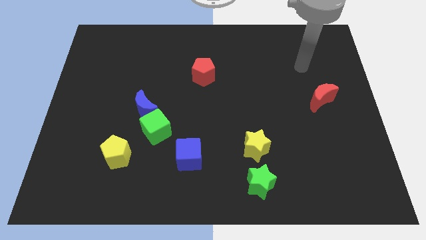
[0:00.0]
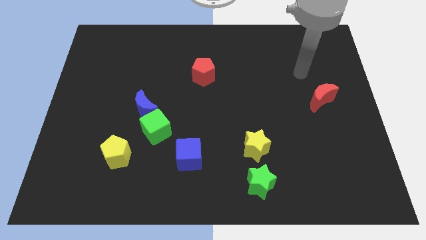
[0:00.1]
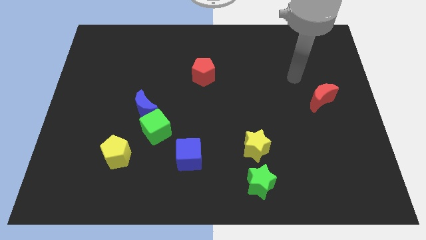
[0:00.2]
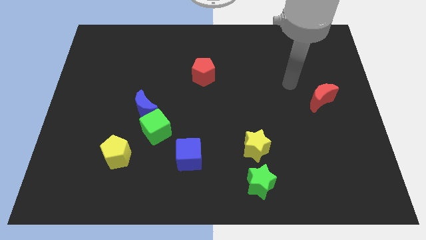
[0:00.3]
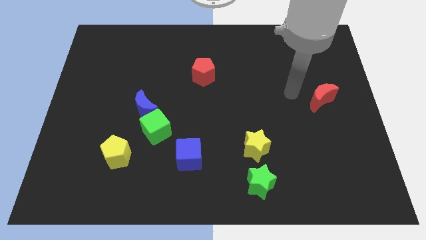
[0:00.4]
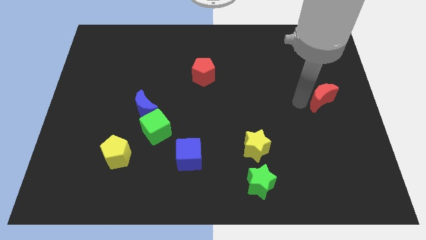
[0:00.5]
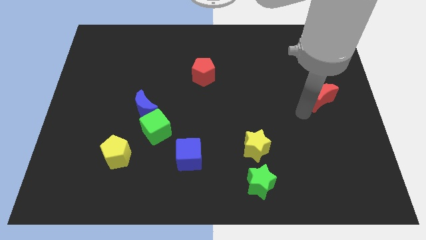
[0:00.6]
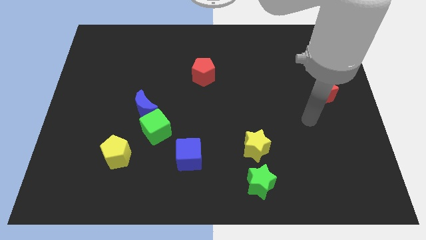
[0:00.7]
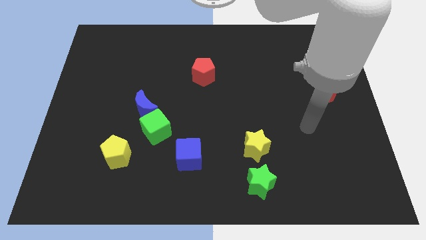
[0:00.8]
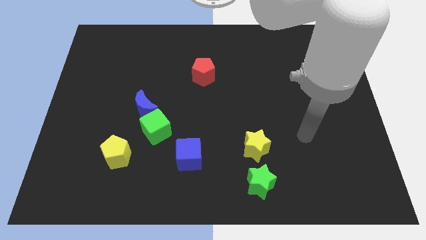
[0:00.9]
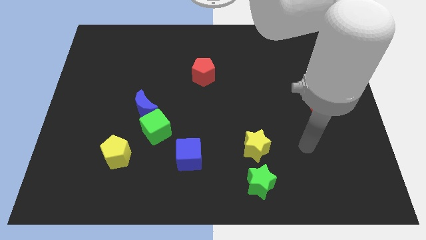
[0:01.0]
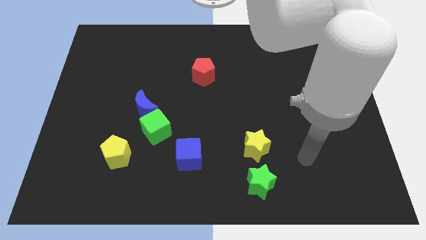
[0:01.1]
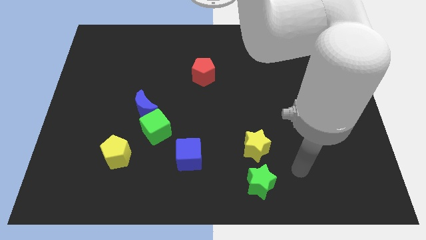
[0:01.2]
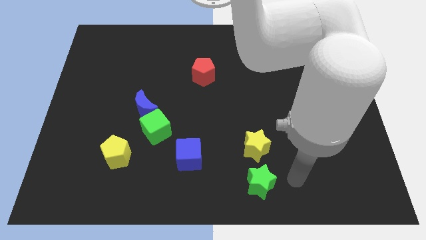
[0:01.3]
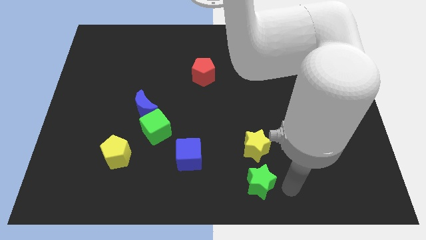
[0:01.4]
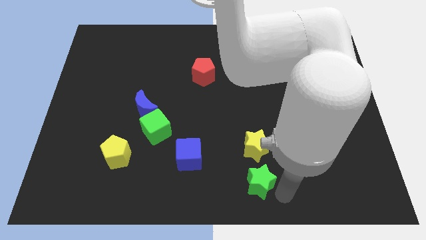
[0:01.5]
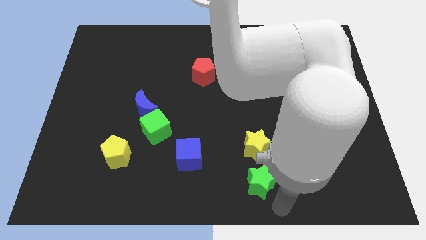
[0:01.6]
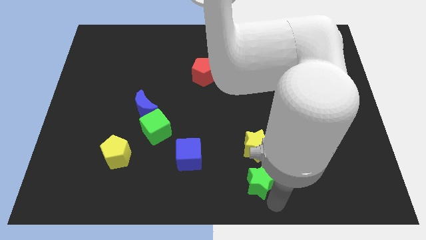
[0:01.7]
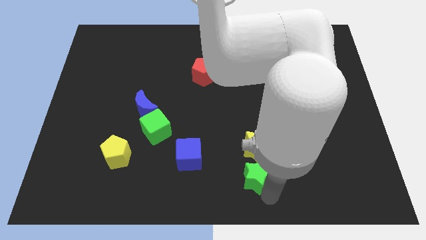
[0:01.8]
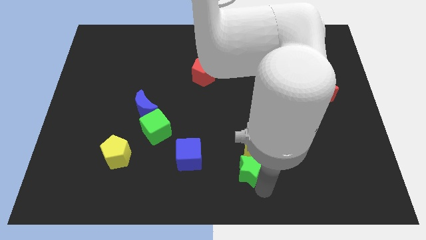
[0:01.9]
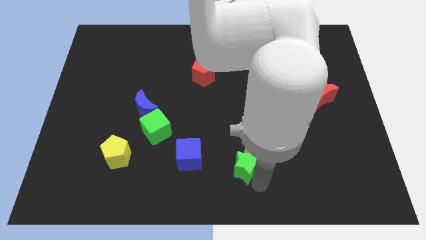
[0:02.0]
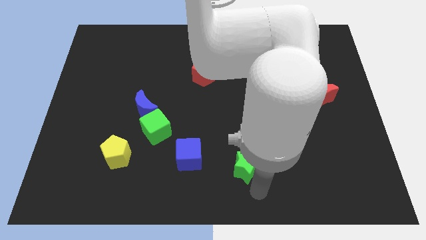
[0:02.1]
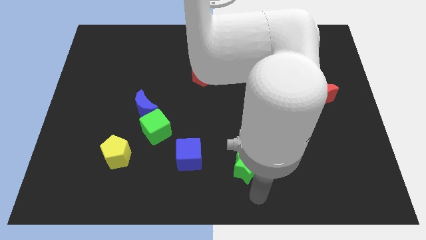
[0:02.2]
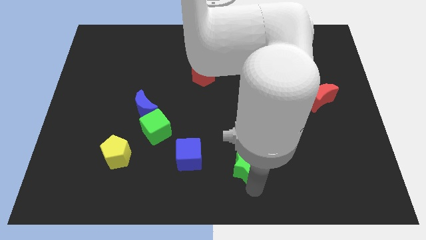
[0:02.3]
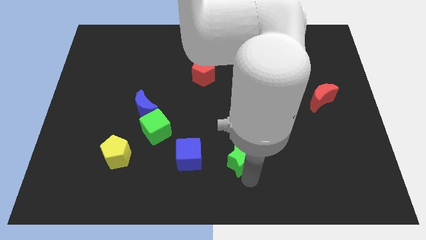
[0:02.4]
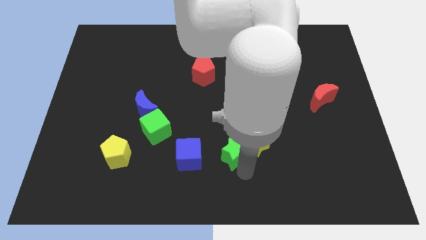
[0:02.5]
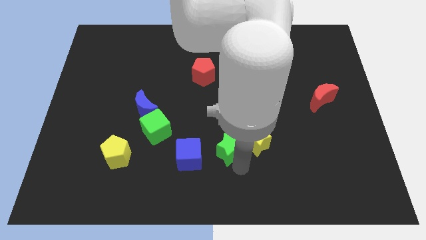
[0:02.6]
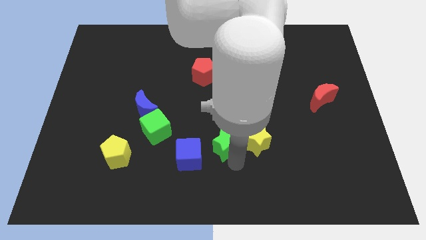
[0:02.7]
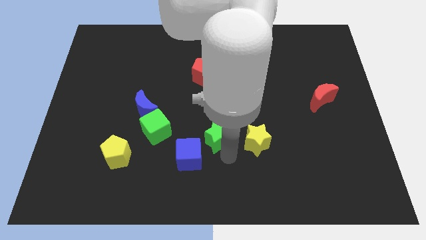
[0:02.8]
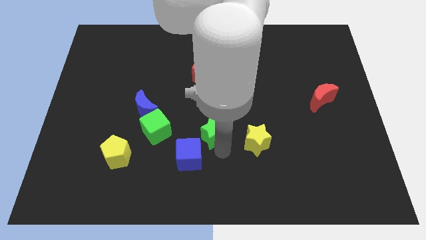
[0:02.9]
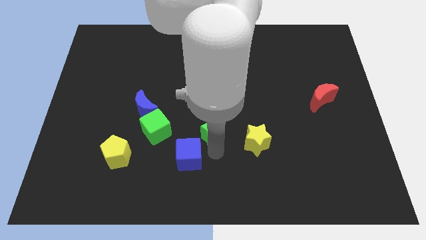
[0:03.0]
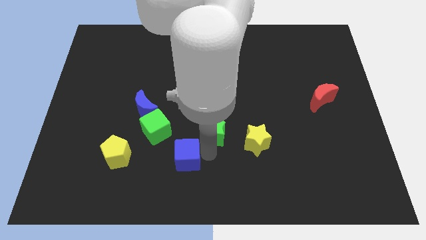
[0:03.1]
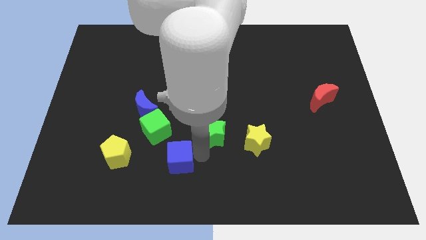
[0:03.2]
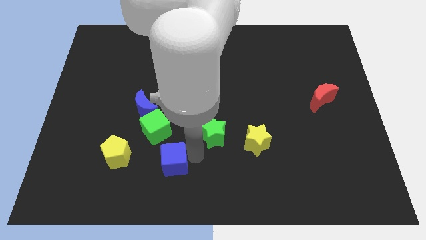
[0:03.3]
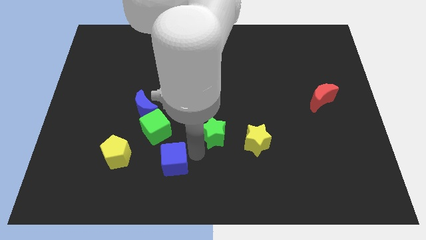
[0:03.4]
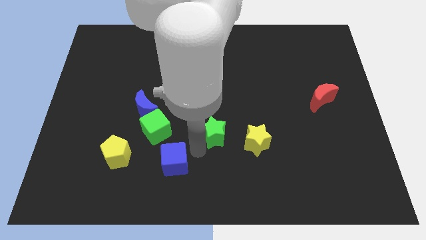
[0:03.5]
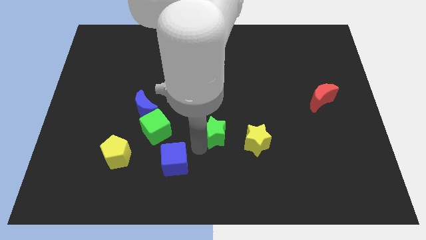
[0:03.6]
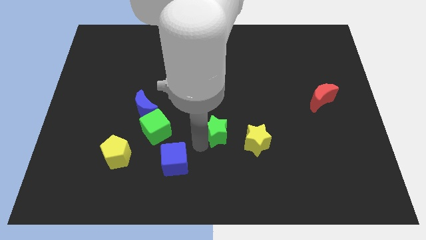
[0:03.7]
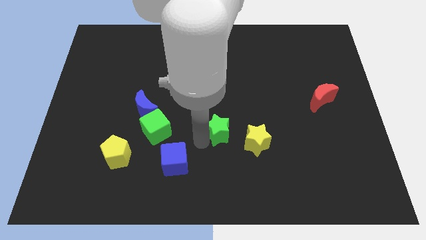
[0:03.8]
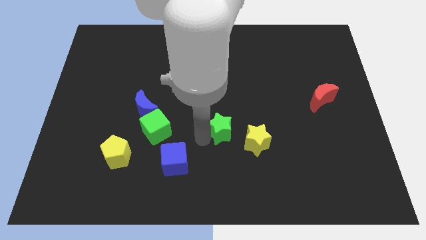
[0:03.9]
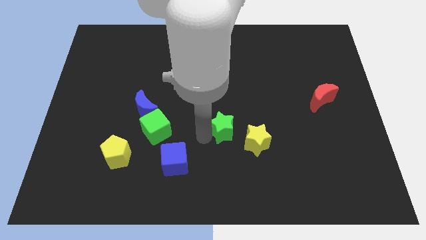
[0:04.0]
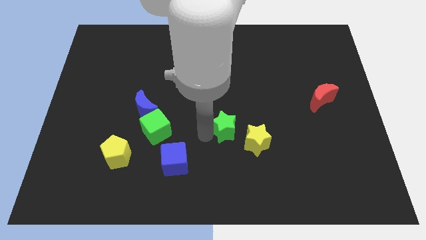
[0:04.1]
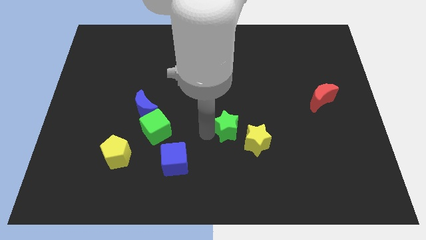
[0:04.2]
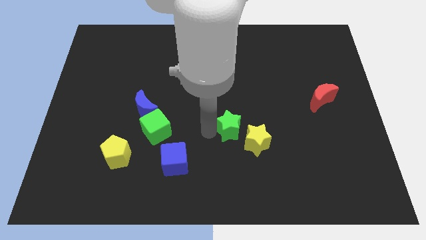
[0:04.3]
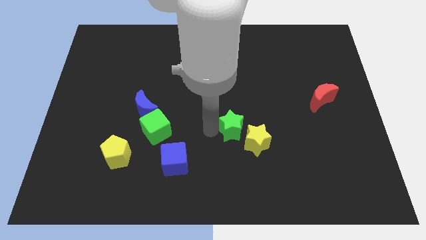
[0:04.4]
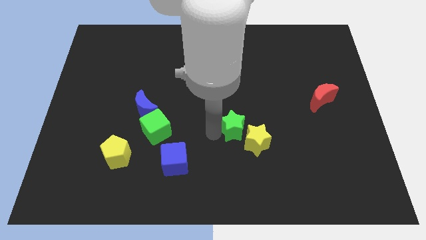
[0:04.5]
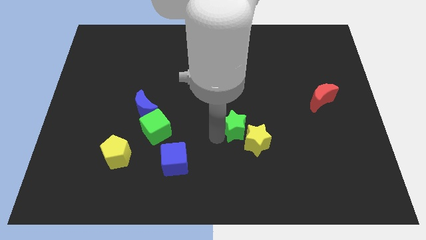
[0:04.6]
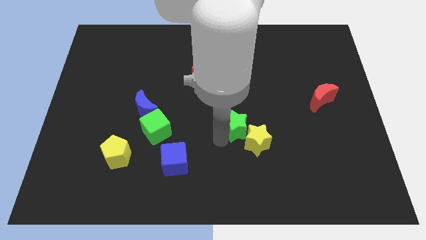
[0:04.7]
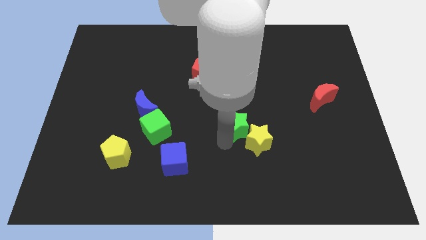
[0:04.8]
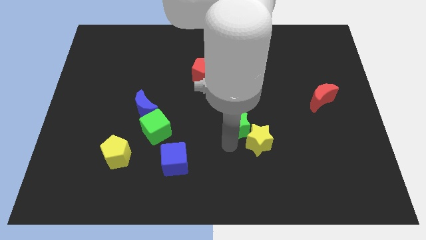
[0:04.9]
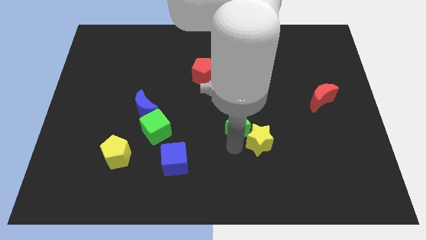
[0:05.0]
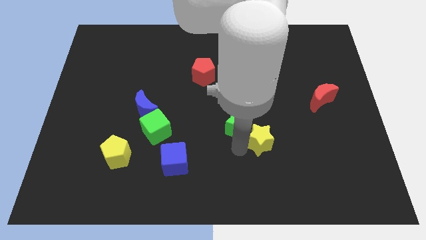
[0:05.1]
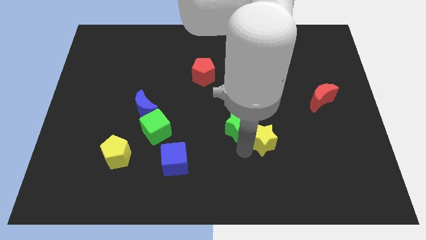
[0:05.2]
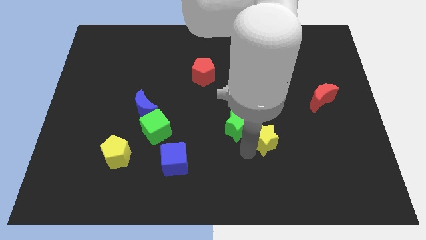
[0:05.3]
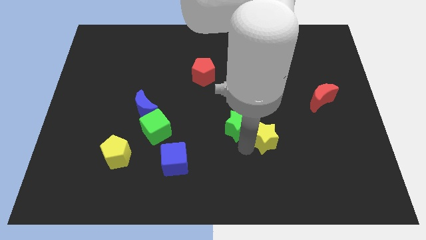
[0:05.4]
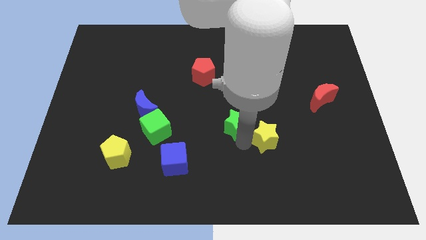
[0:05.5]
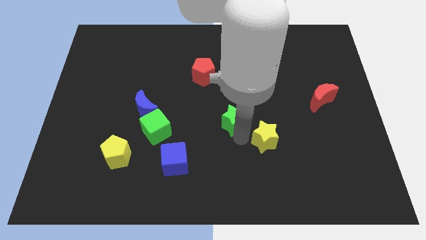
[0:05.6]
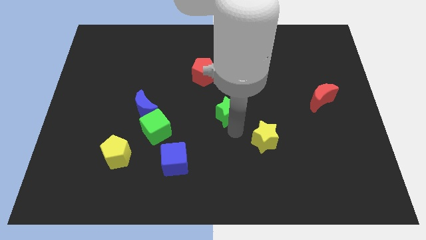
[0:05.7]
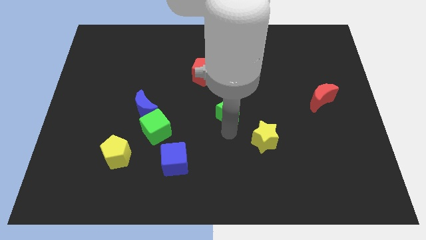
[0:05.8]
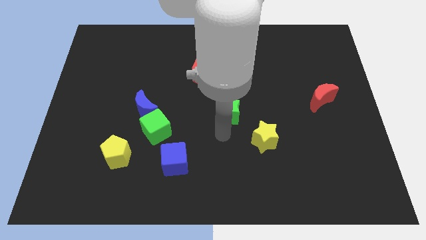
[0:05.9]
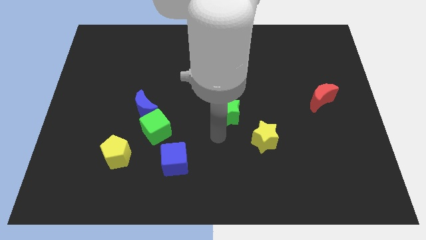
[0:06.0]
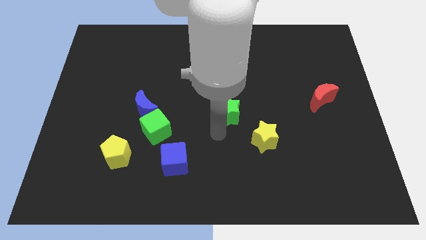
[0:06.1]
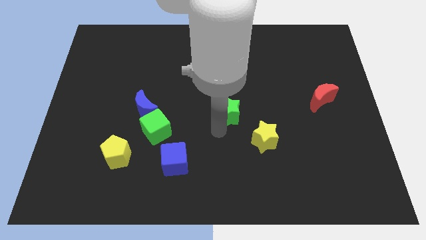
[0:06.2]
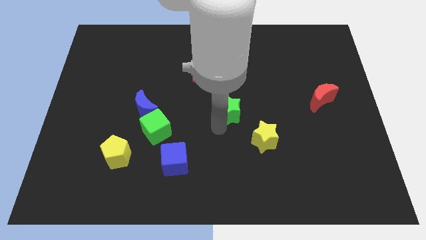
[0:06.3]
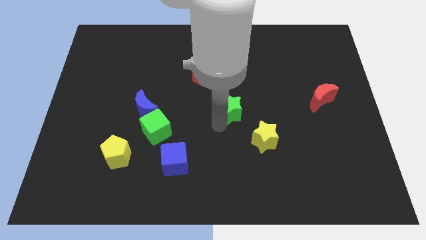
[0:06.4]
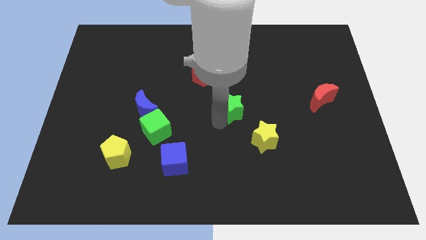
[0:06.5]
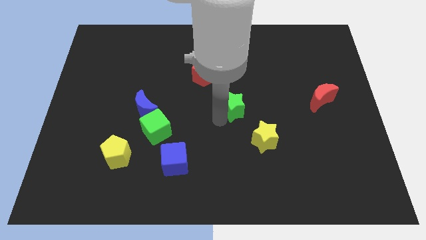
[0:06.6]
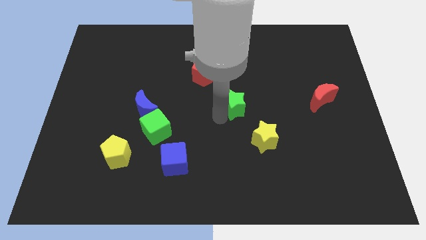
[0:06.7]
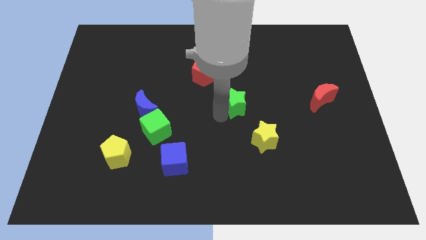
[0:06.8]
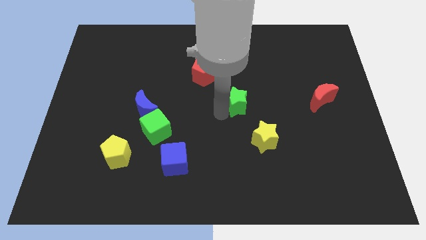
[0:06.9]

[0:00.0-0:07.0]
push the green star up

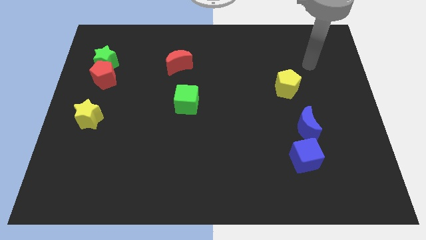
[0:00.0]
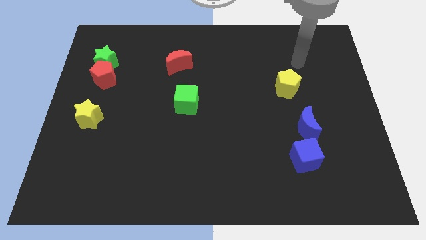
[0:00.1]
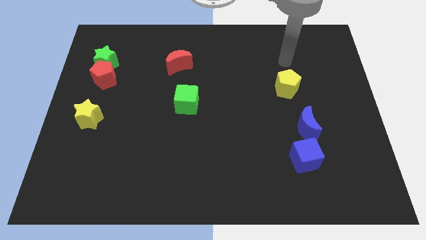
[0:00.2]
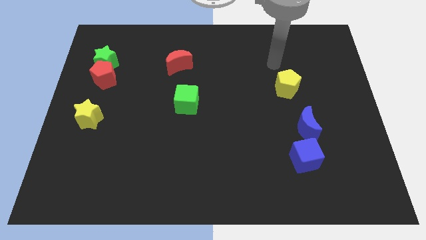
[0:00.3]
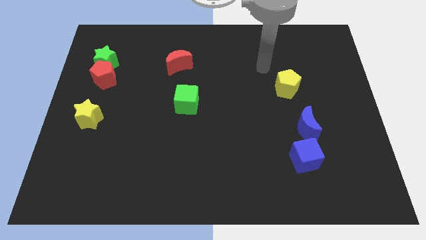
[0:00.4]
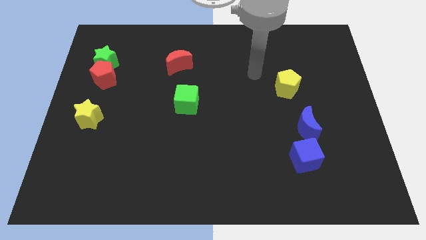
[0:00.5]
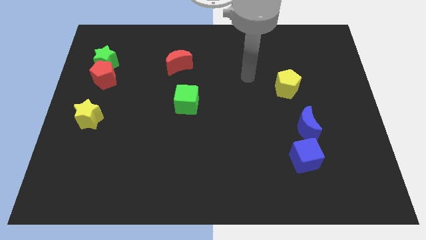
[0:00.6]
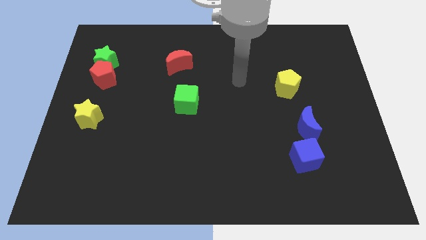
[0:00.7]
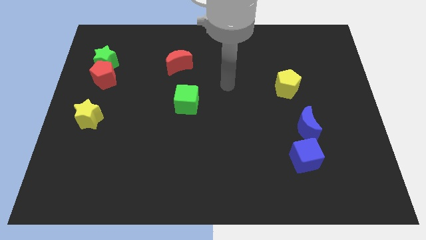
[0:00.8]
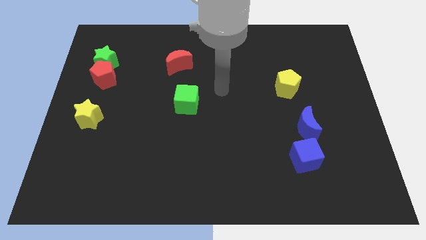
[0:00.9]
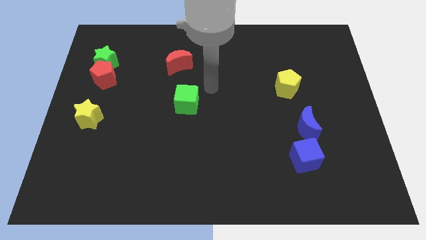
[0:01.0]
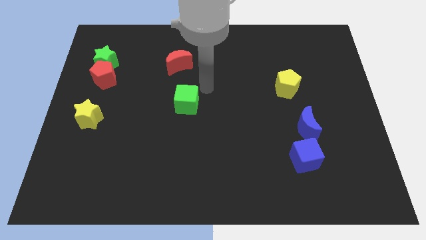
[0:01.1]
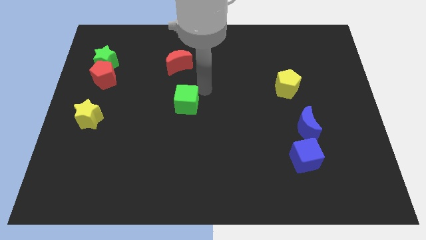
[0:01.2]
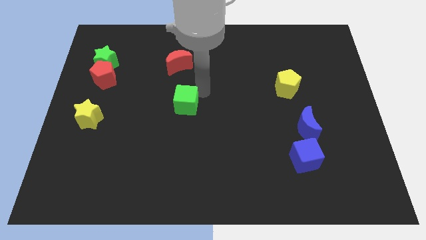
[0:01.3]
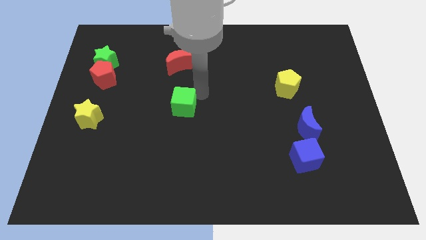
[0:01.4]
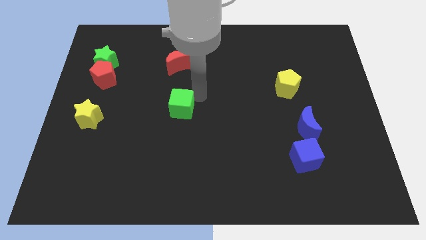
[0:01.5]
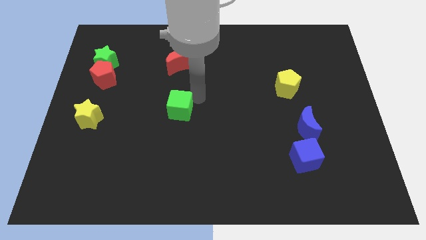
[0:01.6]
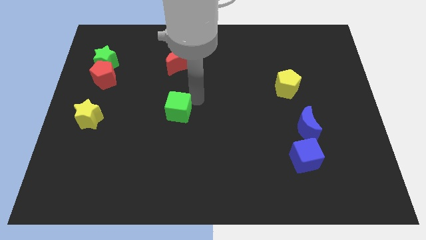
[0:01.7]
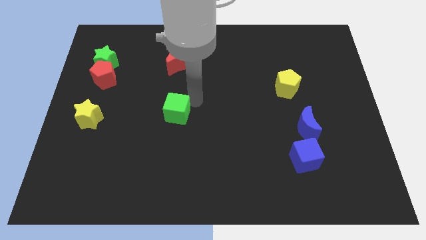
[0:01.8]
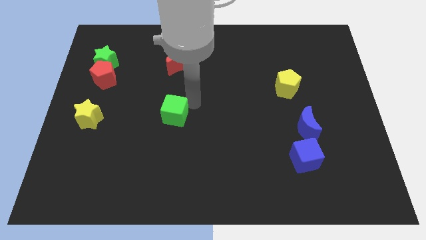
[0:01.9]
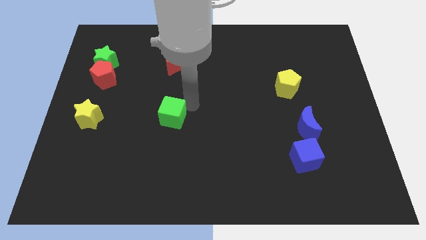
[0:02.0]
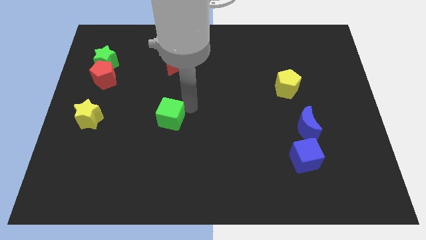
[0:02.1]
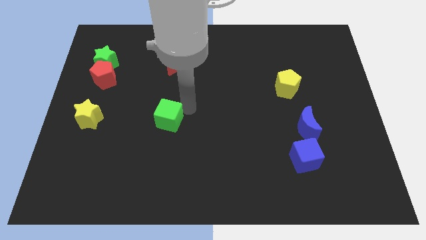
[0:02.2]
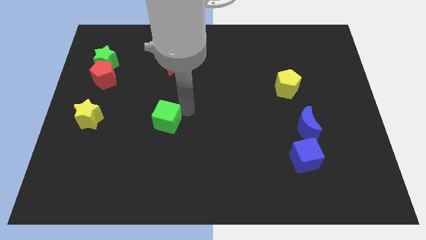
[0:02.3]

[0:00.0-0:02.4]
slide the green cube down and left diagonally a bit
